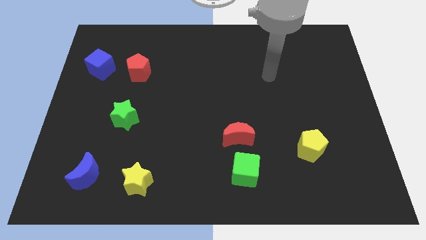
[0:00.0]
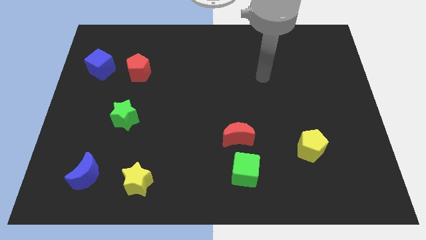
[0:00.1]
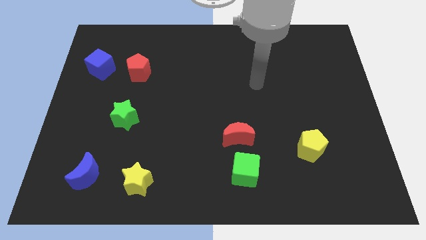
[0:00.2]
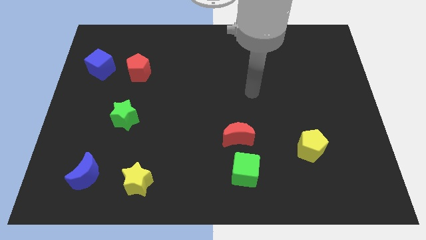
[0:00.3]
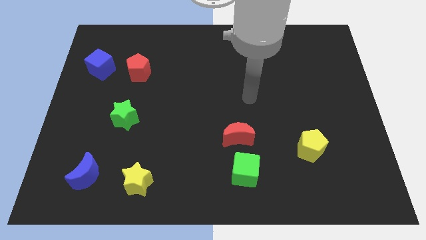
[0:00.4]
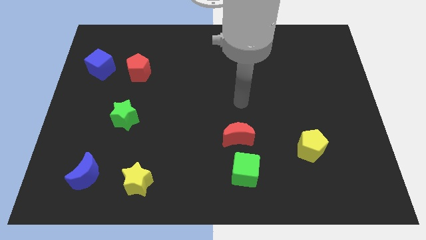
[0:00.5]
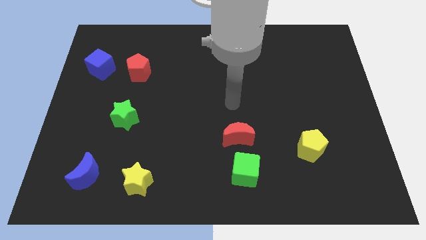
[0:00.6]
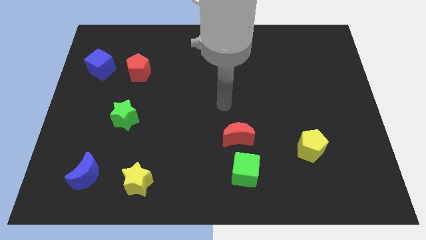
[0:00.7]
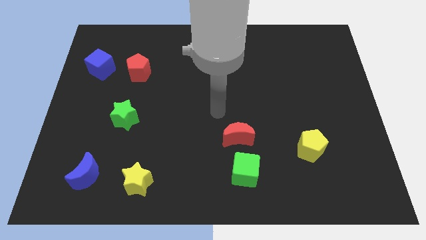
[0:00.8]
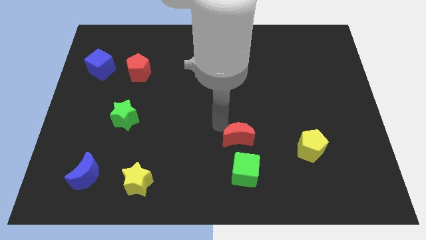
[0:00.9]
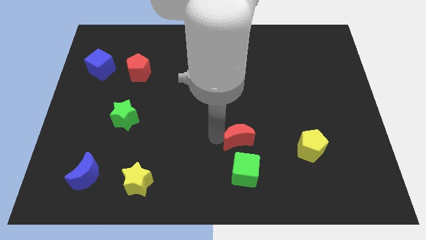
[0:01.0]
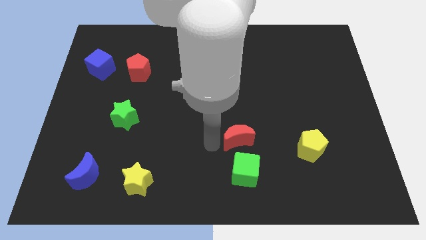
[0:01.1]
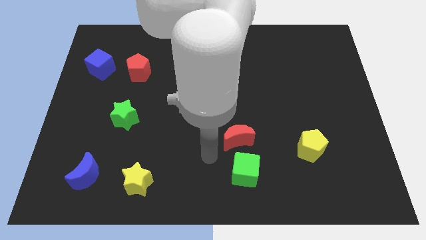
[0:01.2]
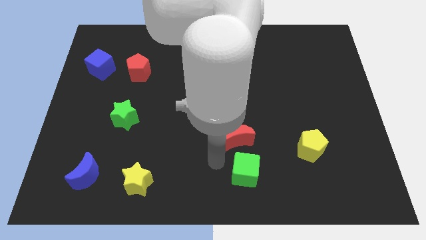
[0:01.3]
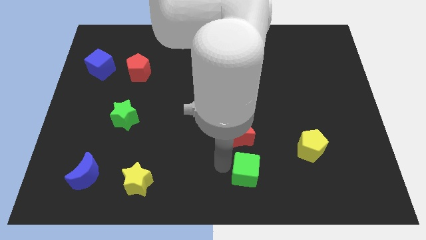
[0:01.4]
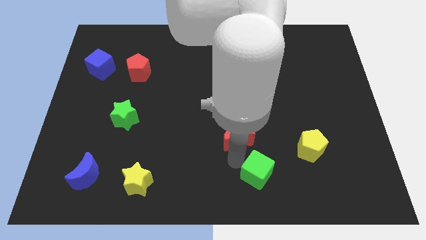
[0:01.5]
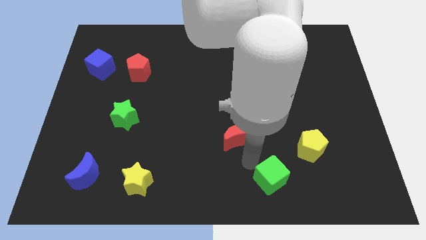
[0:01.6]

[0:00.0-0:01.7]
pull the red moon apart from the green cube

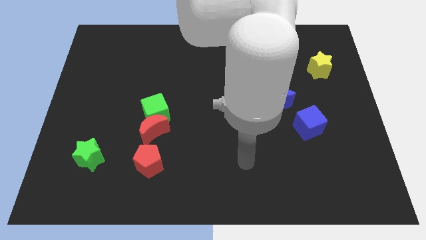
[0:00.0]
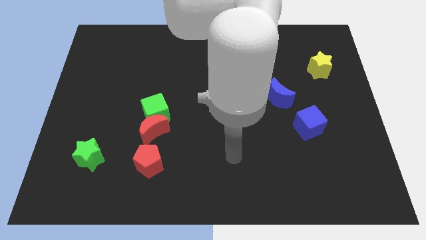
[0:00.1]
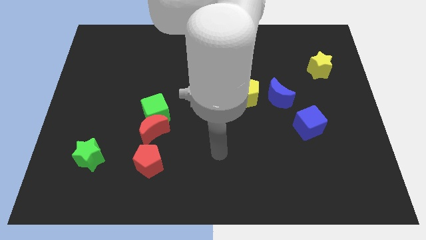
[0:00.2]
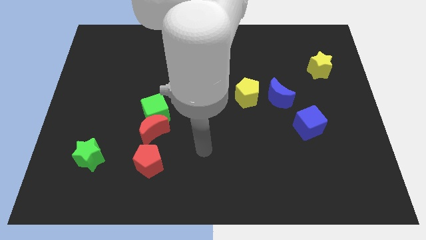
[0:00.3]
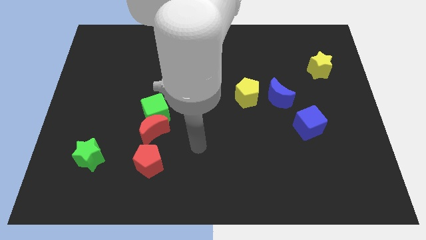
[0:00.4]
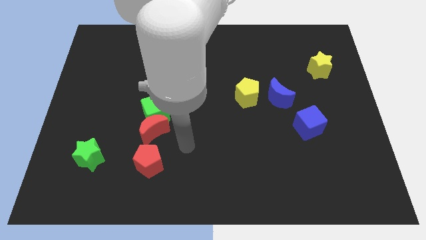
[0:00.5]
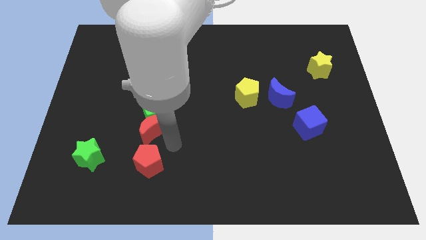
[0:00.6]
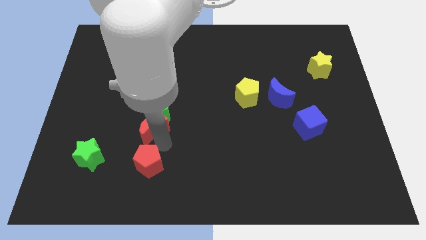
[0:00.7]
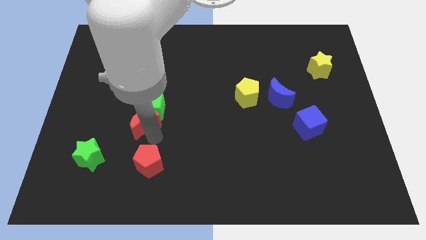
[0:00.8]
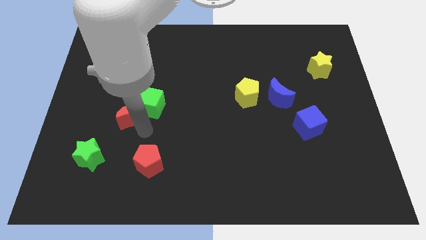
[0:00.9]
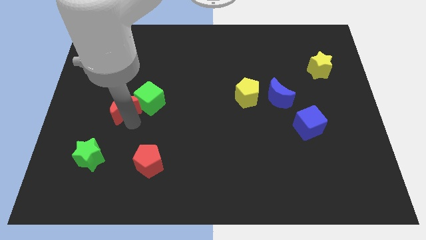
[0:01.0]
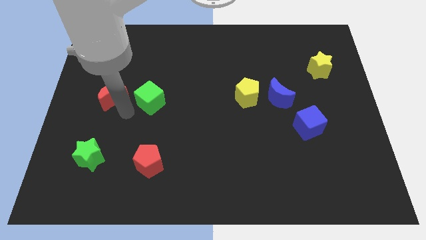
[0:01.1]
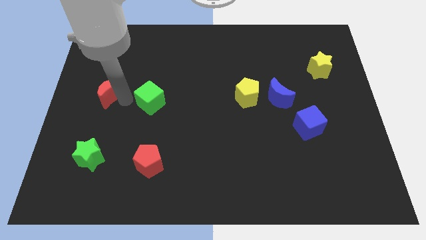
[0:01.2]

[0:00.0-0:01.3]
move the green cube away from the red moon

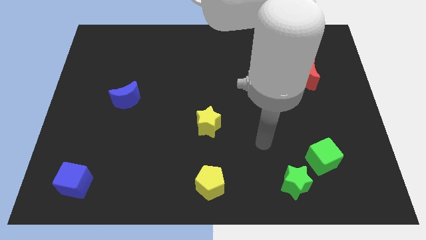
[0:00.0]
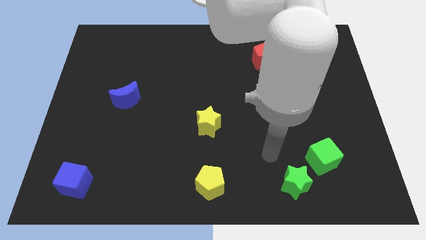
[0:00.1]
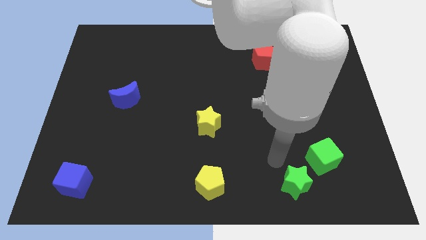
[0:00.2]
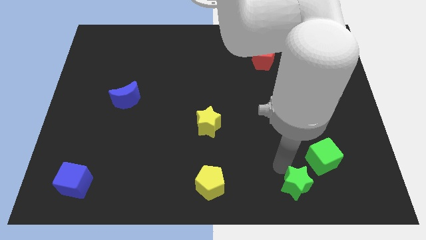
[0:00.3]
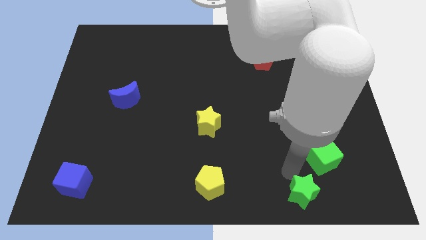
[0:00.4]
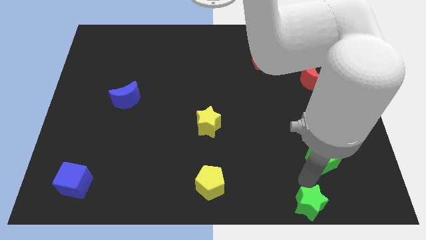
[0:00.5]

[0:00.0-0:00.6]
move the green cube away from the green star

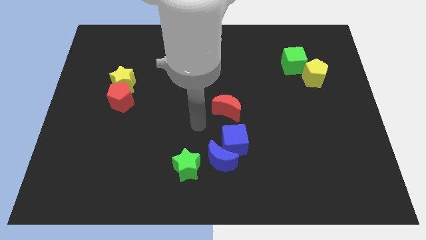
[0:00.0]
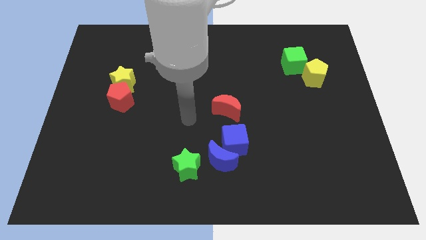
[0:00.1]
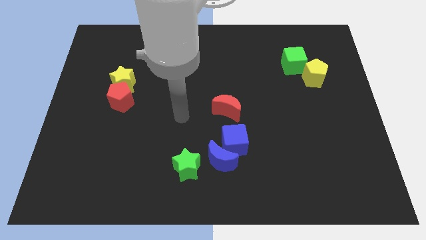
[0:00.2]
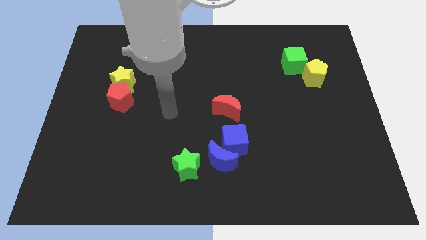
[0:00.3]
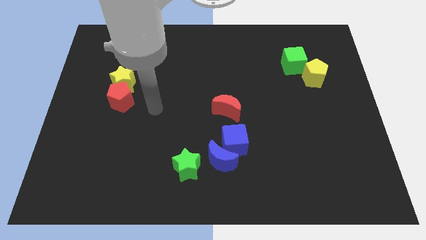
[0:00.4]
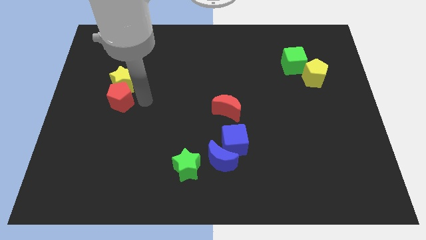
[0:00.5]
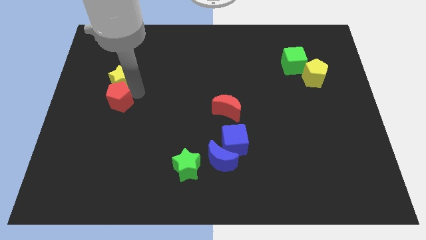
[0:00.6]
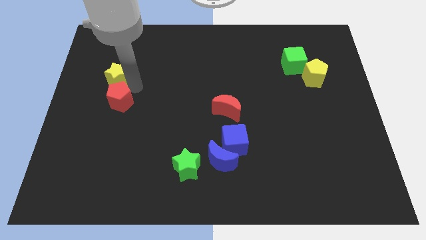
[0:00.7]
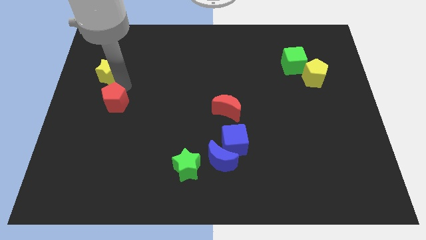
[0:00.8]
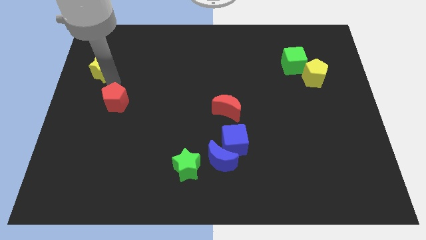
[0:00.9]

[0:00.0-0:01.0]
move the red pentagon away from the yellow star

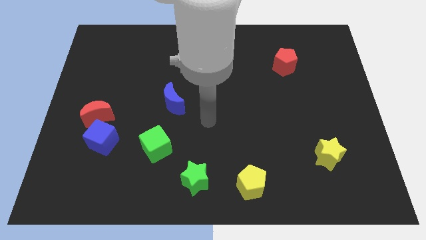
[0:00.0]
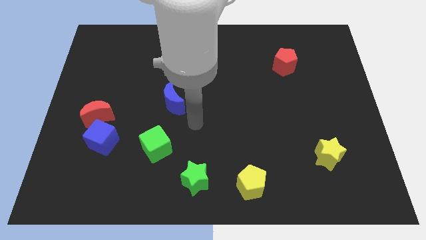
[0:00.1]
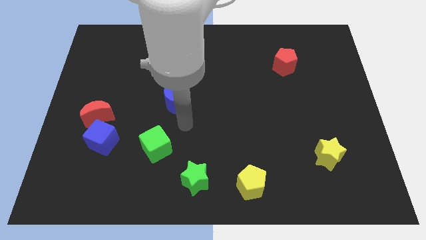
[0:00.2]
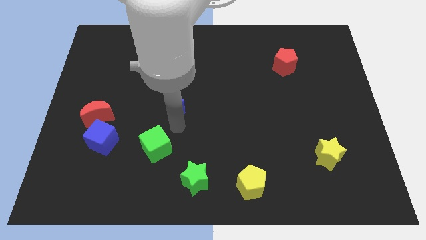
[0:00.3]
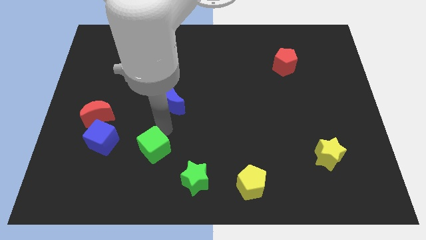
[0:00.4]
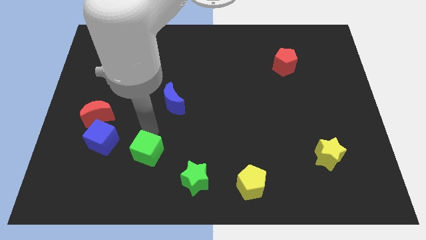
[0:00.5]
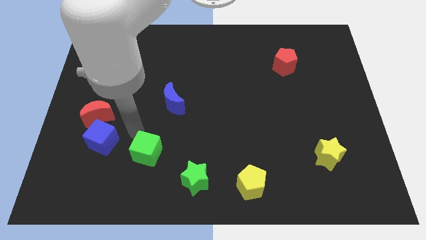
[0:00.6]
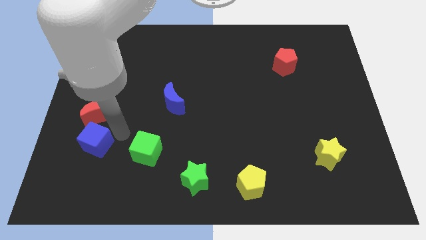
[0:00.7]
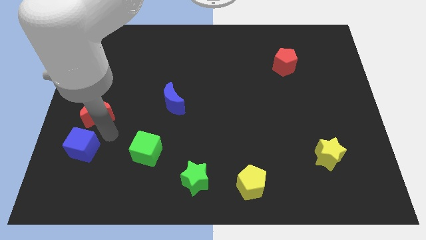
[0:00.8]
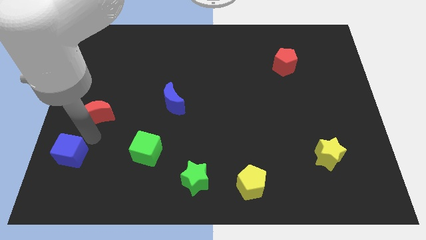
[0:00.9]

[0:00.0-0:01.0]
move the red moon away from the blue cube

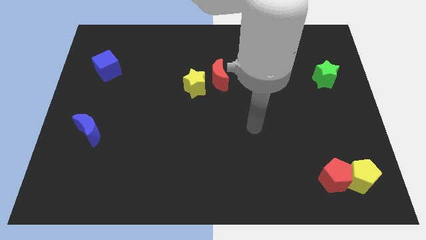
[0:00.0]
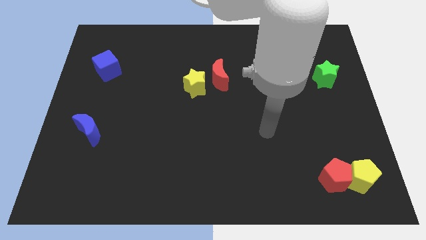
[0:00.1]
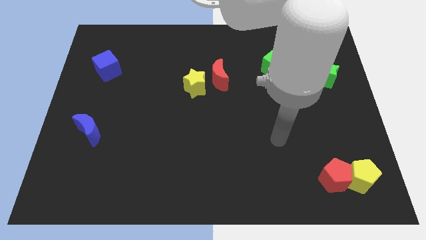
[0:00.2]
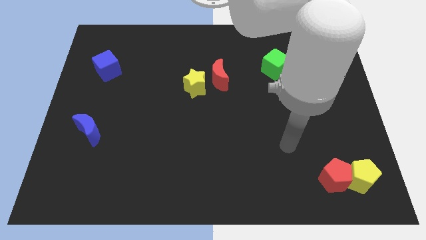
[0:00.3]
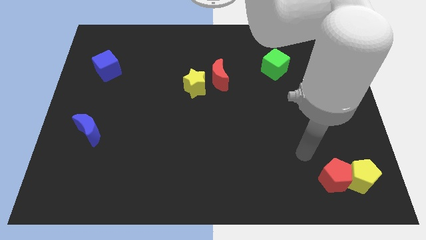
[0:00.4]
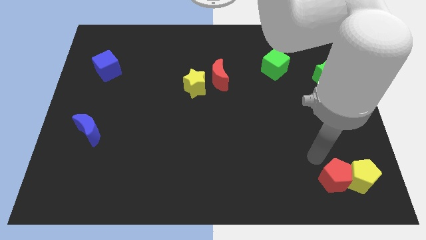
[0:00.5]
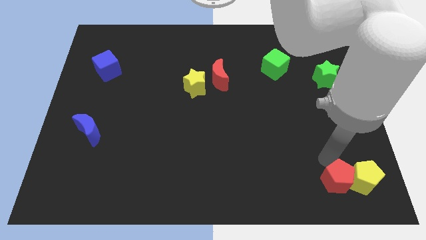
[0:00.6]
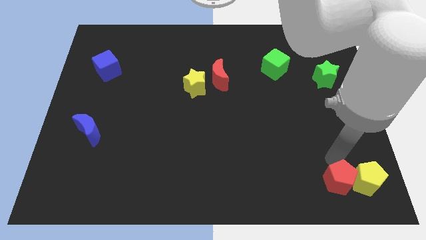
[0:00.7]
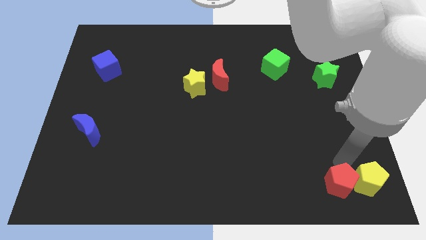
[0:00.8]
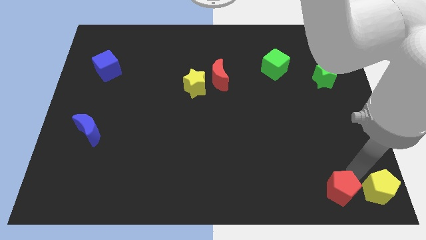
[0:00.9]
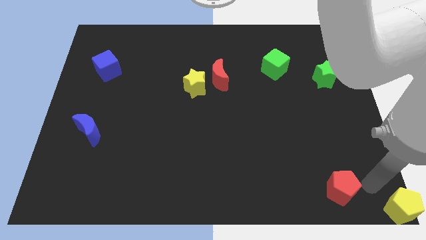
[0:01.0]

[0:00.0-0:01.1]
separate the red pentagon from the yellow pentagon

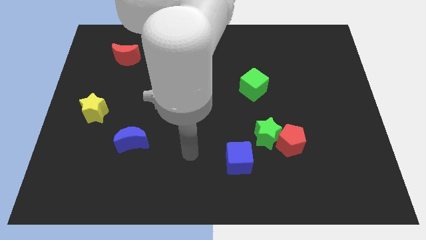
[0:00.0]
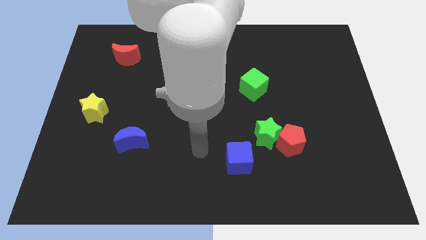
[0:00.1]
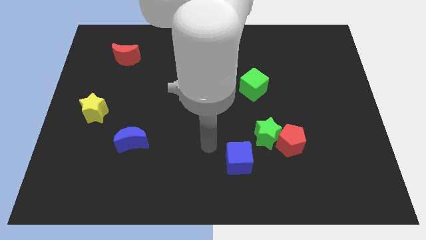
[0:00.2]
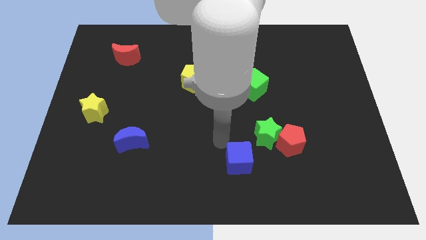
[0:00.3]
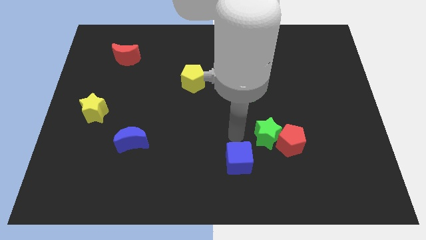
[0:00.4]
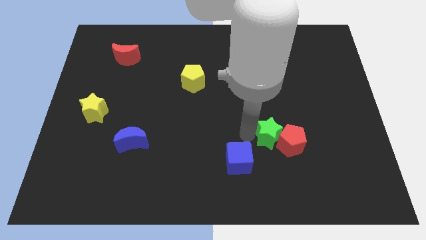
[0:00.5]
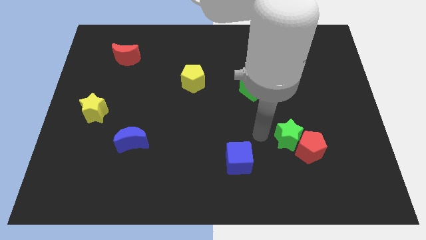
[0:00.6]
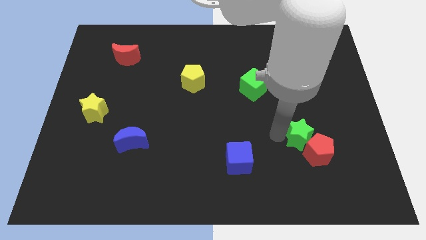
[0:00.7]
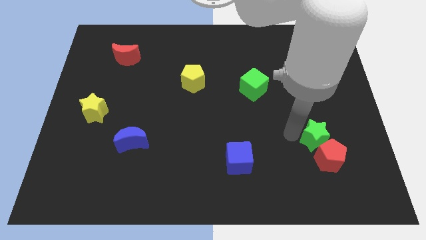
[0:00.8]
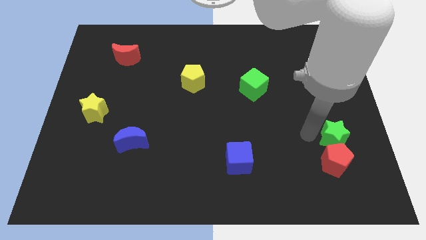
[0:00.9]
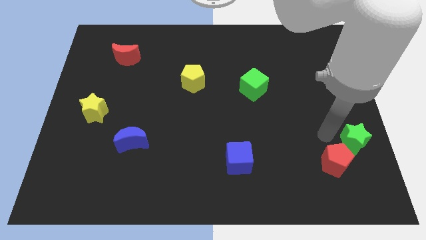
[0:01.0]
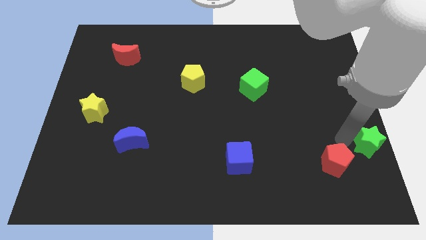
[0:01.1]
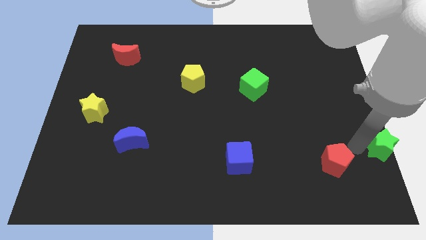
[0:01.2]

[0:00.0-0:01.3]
separate the red pentagon from the green star

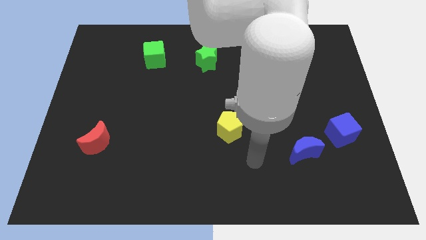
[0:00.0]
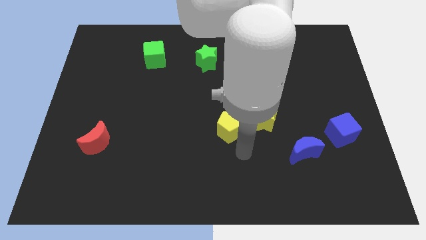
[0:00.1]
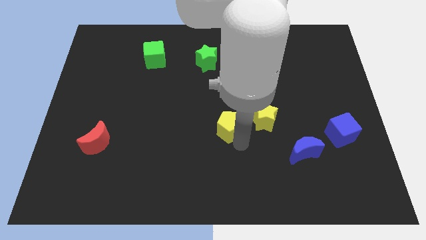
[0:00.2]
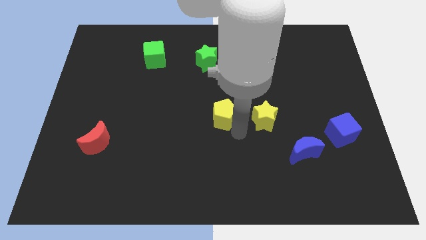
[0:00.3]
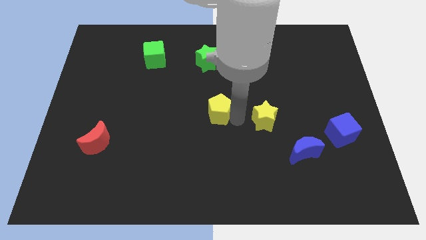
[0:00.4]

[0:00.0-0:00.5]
separate the yellow star from the yellow pentagon

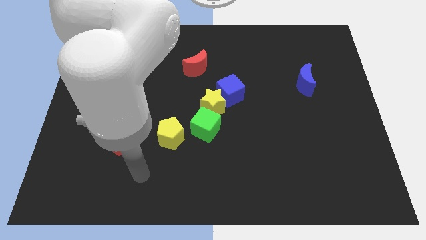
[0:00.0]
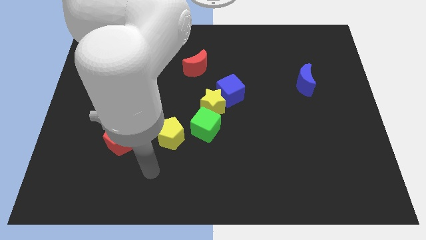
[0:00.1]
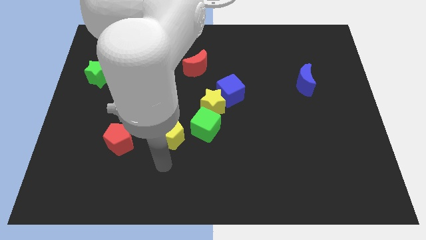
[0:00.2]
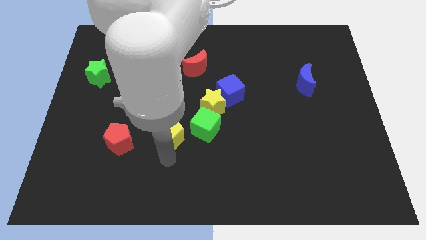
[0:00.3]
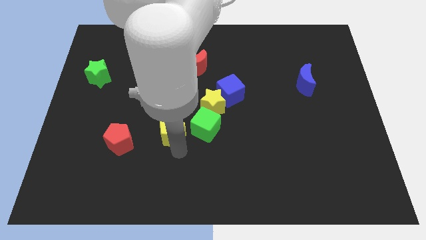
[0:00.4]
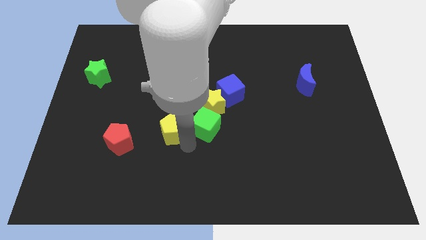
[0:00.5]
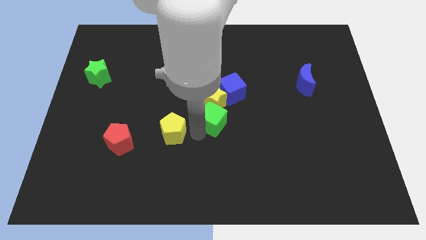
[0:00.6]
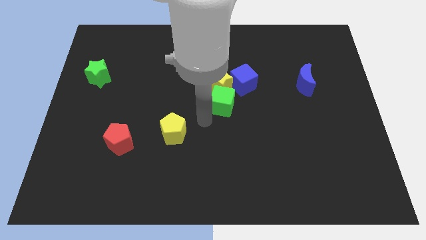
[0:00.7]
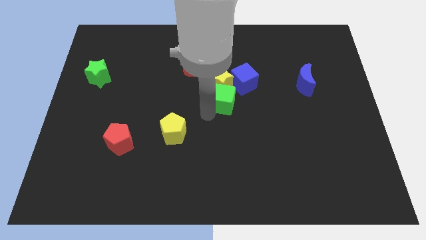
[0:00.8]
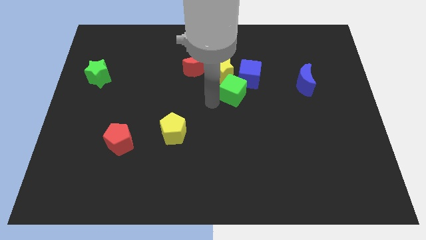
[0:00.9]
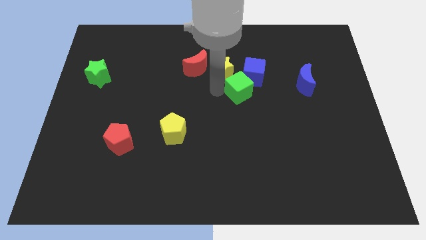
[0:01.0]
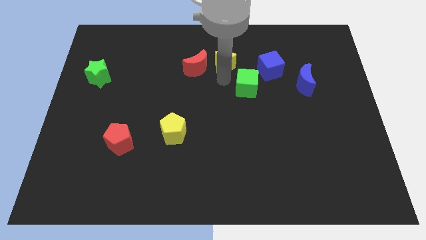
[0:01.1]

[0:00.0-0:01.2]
pull the blue cube apart from the yellow star
